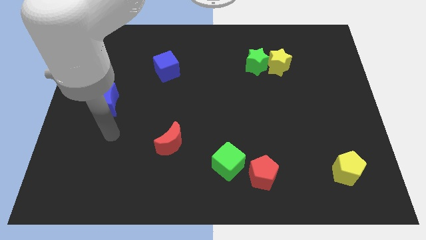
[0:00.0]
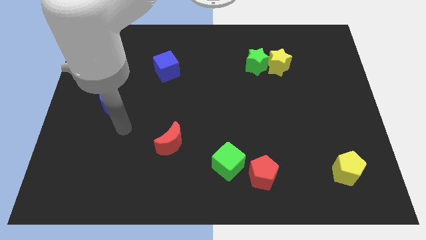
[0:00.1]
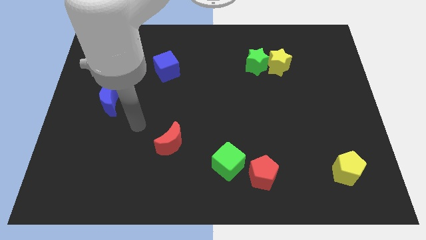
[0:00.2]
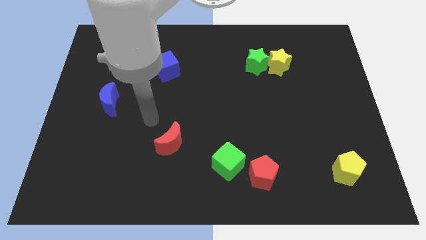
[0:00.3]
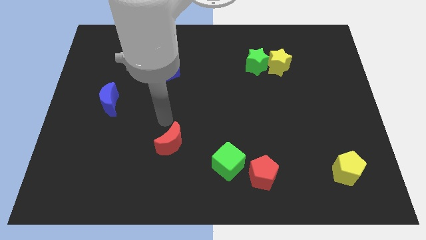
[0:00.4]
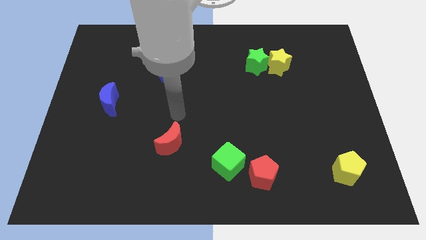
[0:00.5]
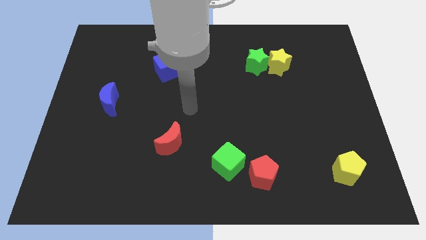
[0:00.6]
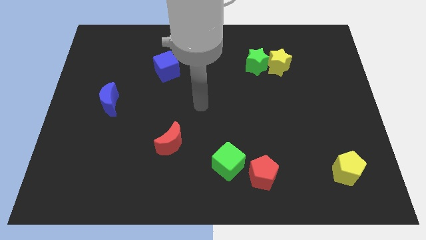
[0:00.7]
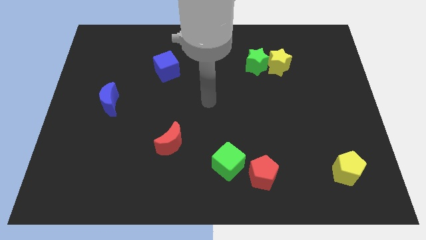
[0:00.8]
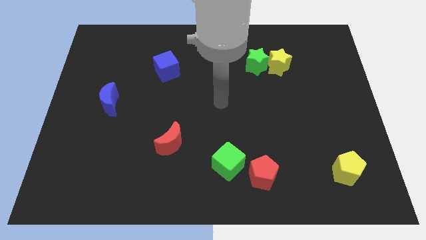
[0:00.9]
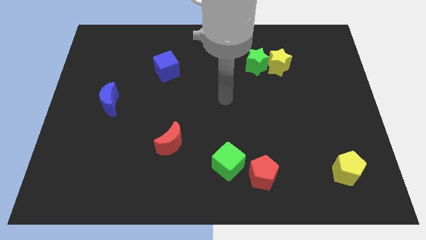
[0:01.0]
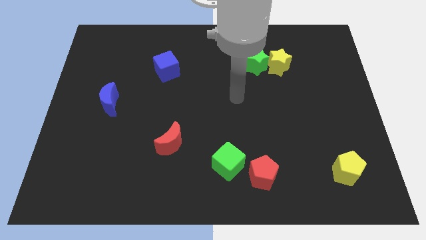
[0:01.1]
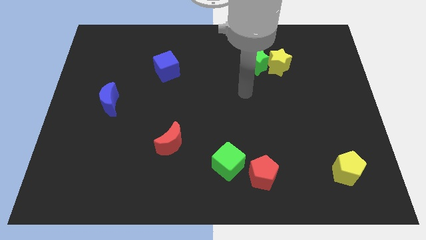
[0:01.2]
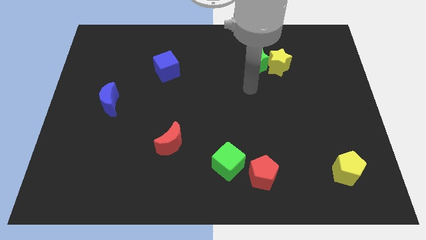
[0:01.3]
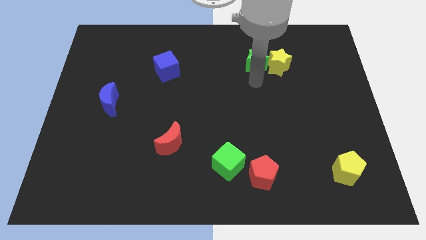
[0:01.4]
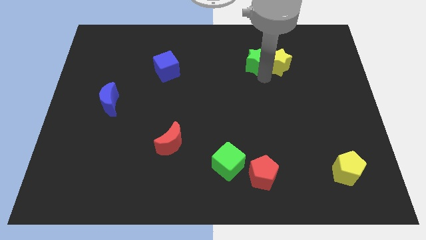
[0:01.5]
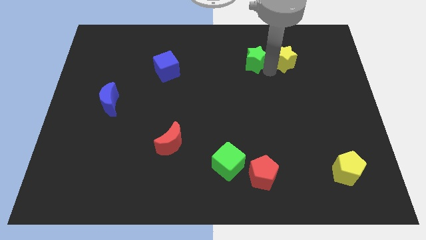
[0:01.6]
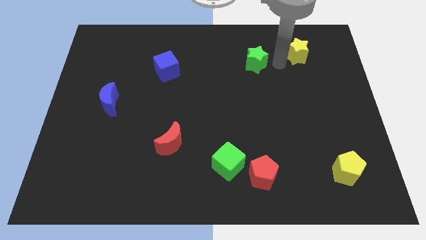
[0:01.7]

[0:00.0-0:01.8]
separate the green star from the yellow star

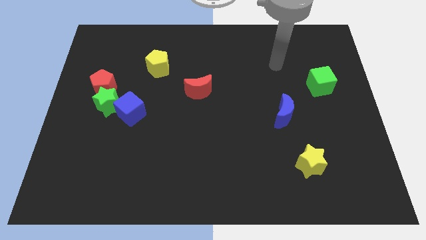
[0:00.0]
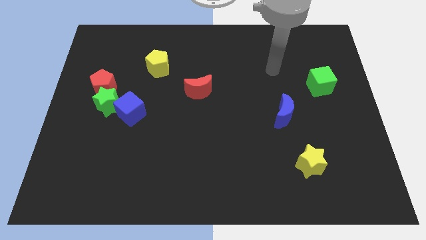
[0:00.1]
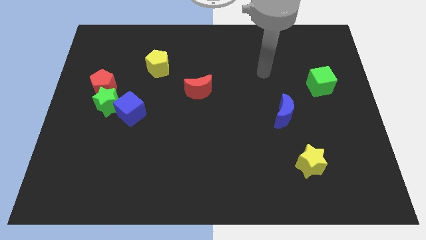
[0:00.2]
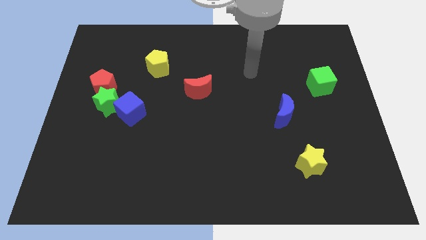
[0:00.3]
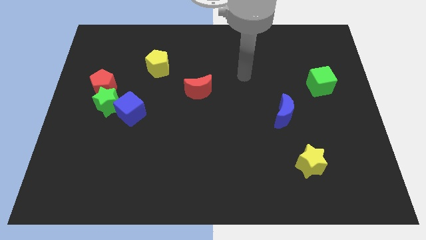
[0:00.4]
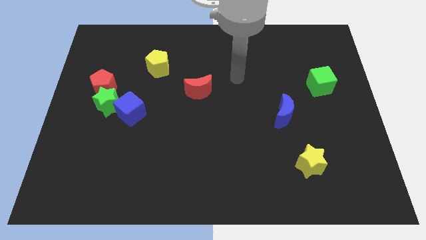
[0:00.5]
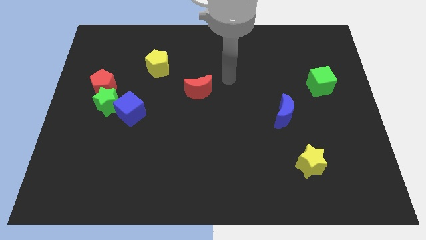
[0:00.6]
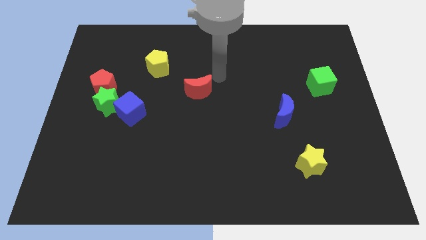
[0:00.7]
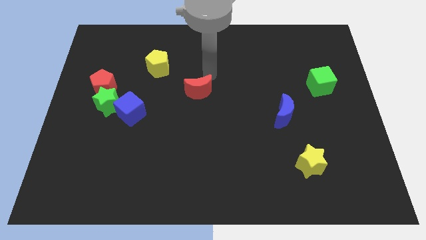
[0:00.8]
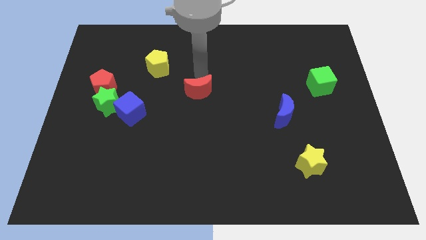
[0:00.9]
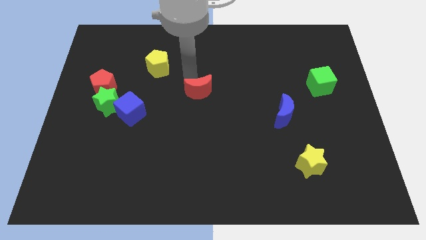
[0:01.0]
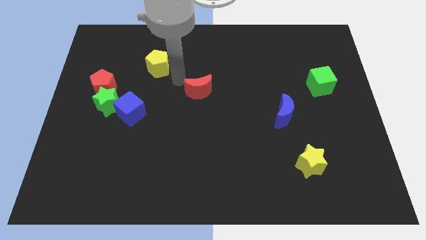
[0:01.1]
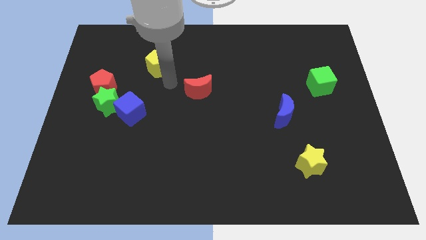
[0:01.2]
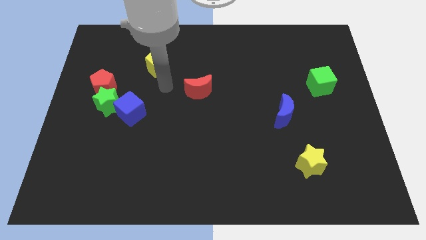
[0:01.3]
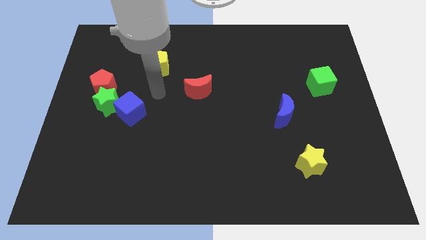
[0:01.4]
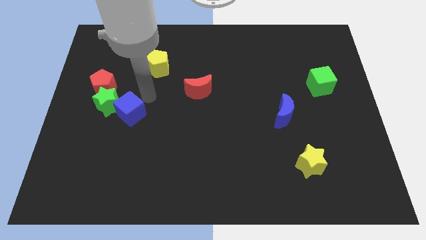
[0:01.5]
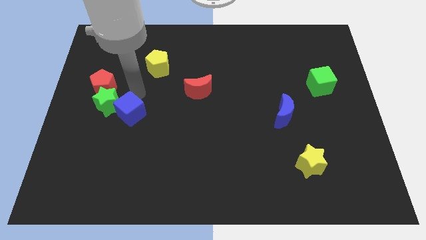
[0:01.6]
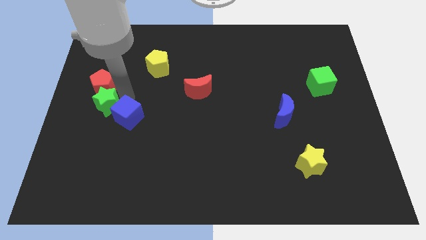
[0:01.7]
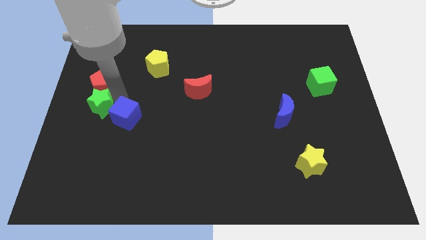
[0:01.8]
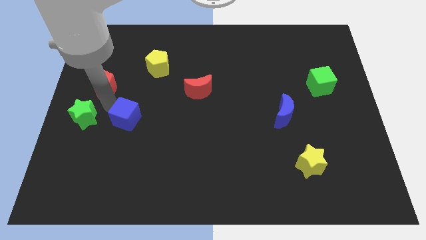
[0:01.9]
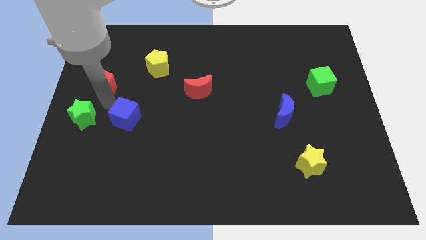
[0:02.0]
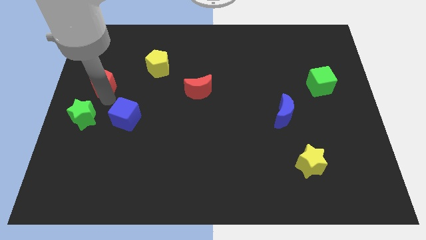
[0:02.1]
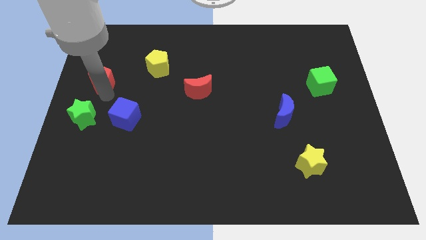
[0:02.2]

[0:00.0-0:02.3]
pull the red pentagon apart from the green star

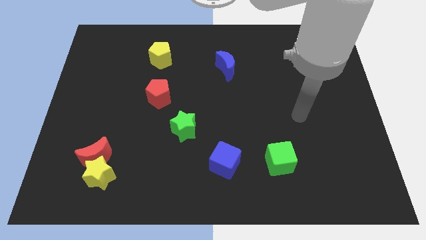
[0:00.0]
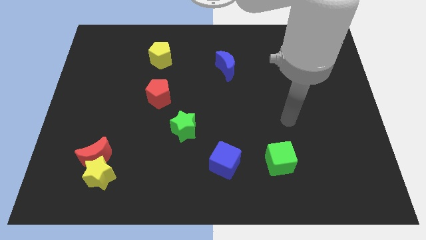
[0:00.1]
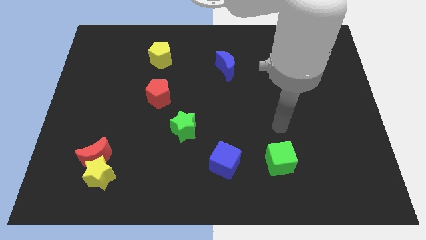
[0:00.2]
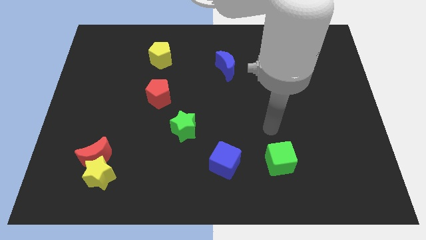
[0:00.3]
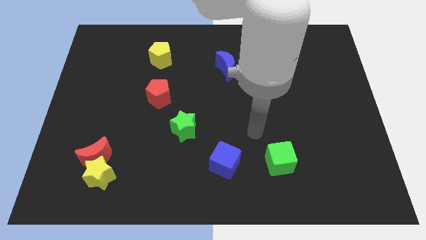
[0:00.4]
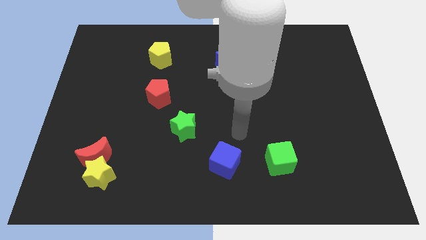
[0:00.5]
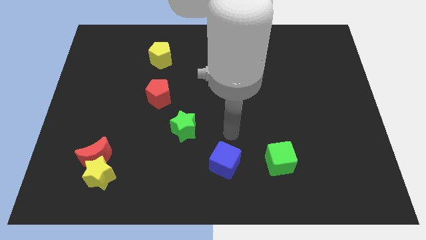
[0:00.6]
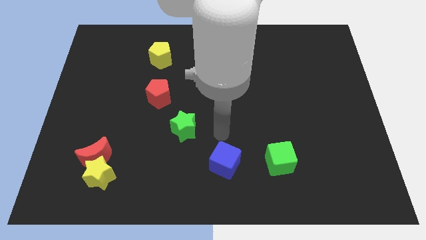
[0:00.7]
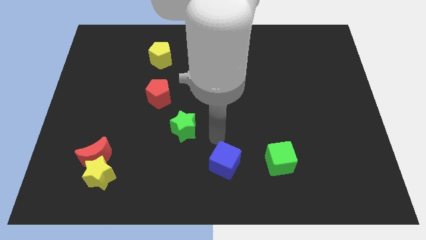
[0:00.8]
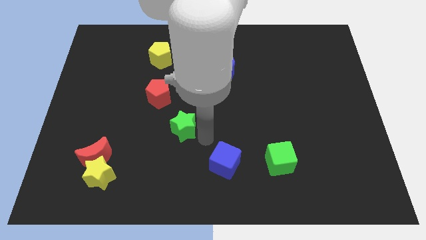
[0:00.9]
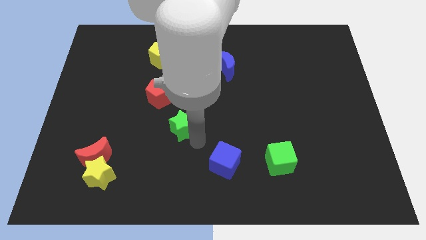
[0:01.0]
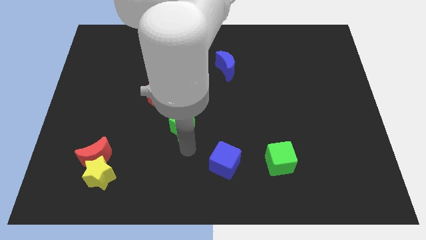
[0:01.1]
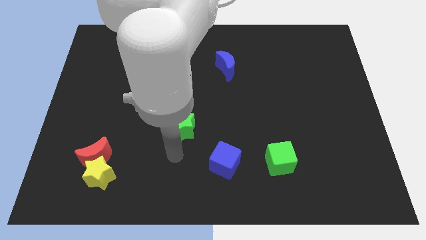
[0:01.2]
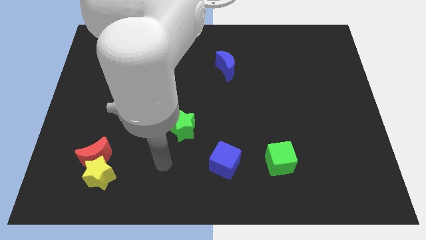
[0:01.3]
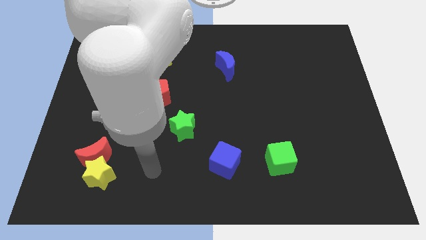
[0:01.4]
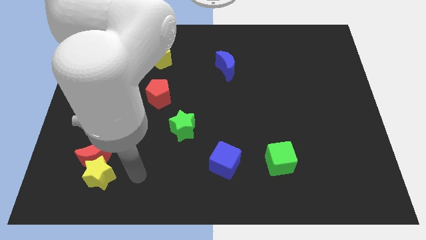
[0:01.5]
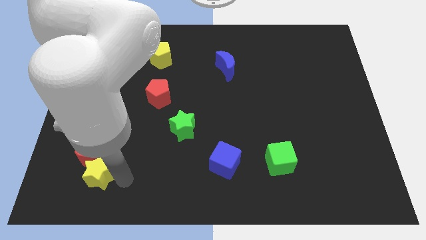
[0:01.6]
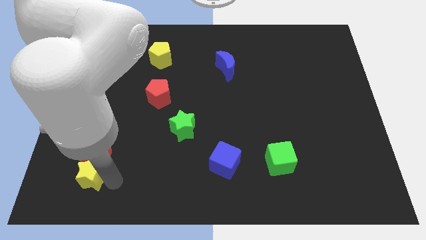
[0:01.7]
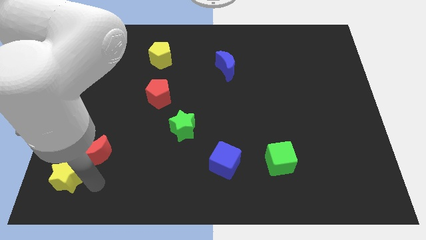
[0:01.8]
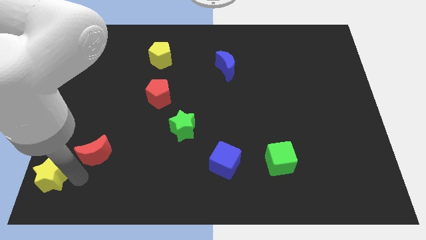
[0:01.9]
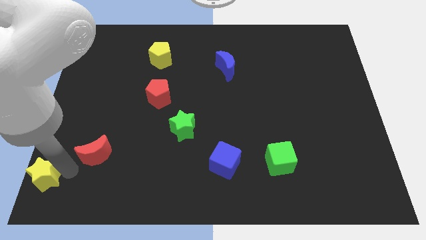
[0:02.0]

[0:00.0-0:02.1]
move the red moon away from the yellow star

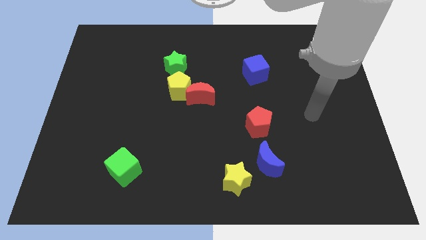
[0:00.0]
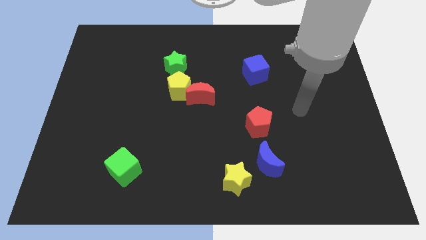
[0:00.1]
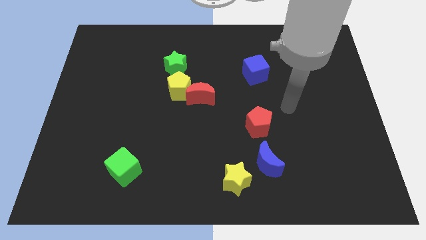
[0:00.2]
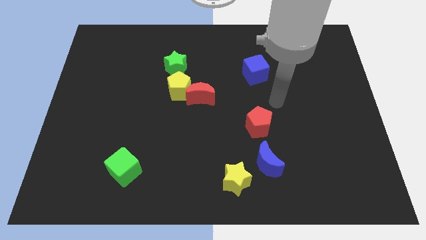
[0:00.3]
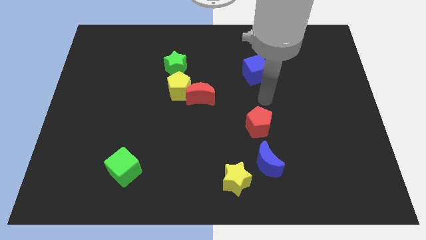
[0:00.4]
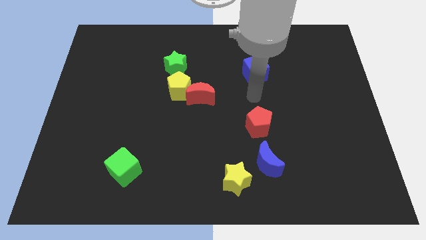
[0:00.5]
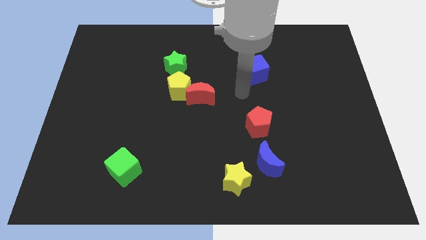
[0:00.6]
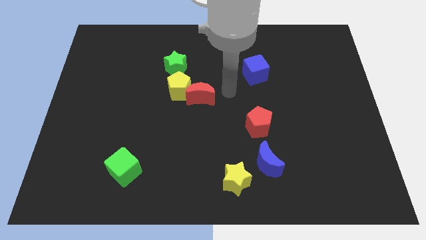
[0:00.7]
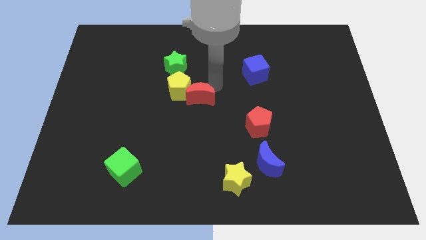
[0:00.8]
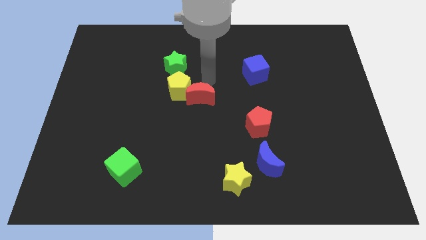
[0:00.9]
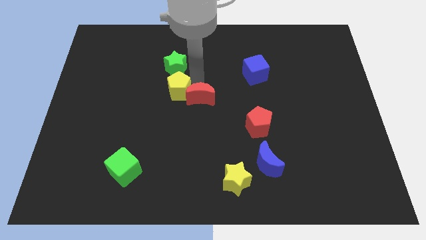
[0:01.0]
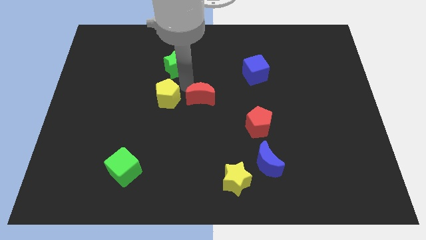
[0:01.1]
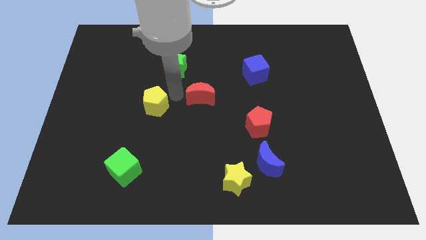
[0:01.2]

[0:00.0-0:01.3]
separate the red moon from the yellow pentagon

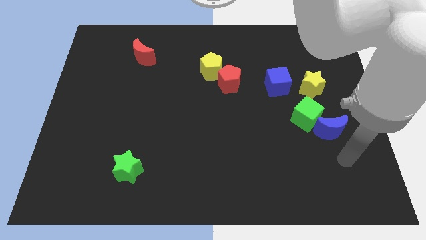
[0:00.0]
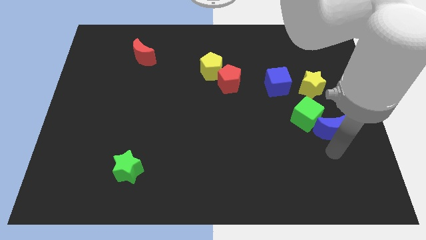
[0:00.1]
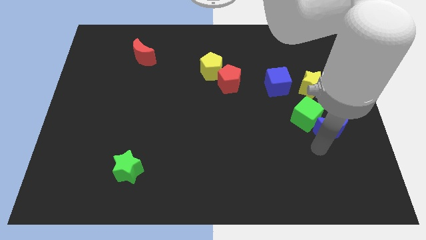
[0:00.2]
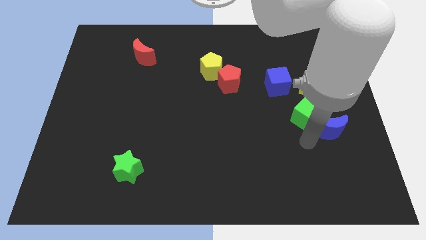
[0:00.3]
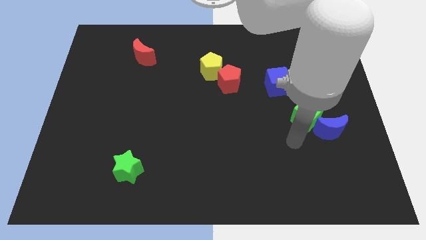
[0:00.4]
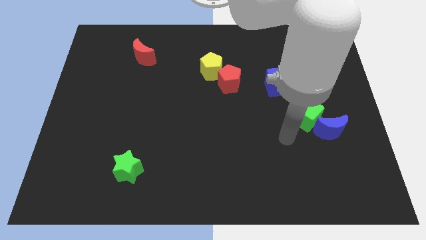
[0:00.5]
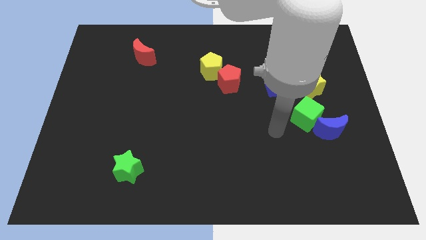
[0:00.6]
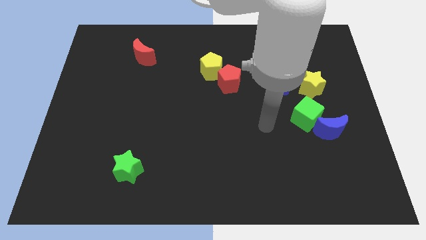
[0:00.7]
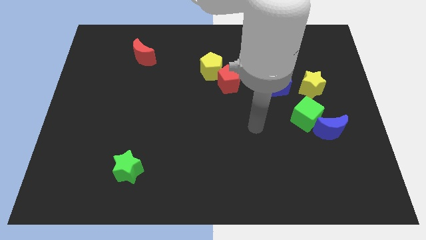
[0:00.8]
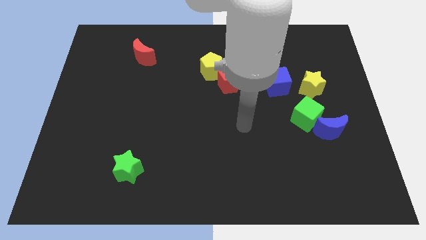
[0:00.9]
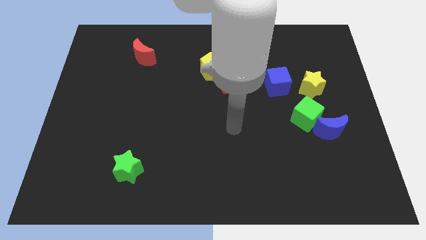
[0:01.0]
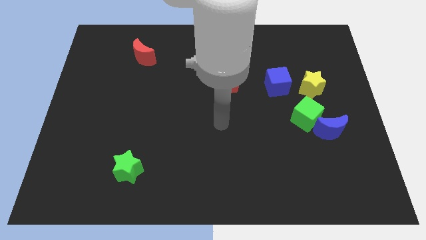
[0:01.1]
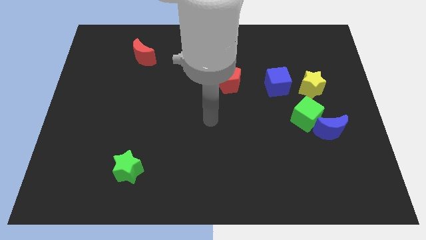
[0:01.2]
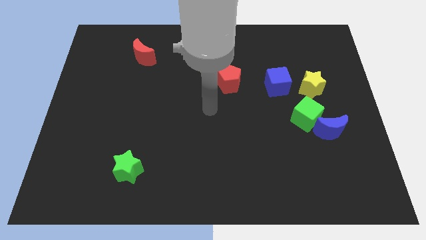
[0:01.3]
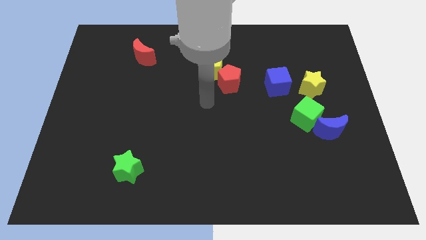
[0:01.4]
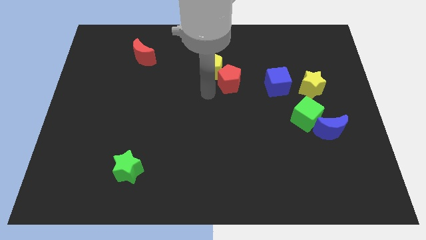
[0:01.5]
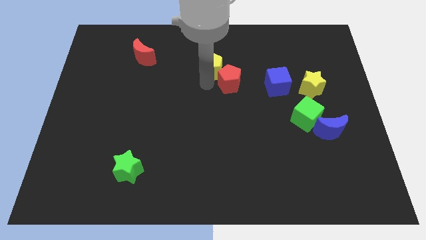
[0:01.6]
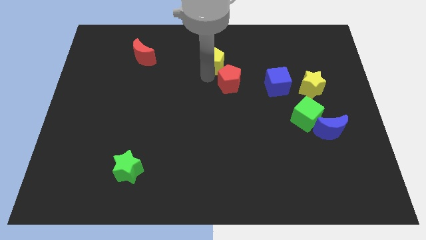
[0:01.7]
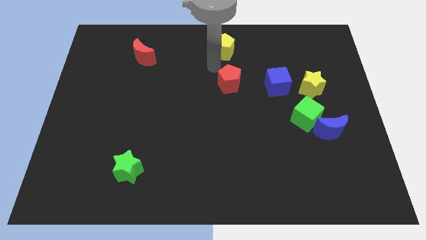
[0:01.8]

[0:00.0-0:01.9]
move the red pentagon away from the yellow pentagon

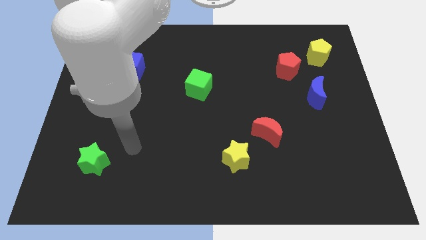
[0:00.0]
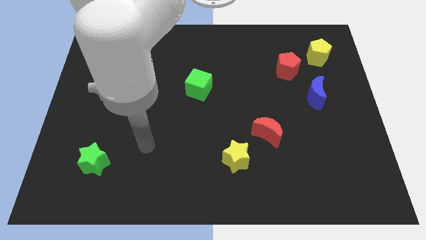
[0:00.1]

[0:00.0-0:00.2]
pull the red moon apart from the yellow star
